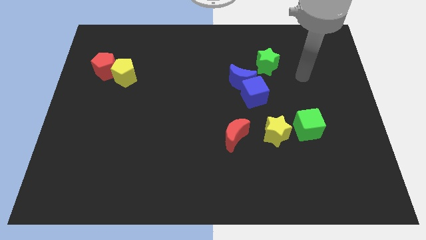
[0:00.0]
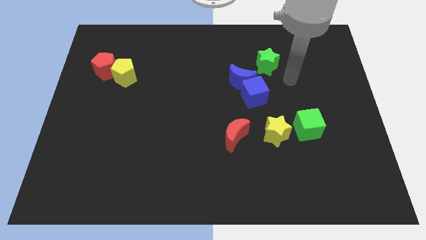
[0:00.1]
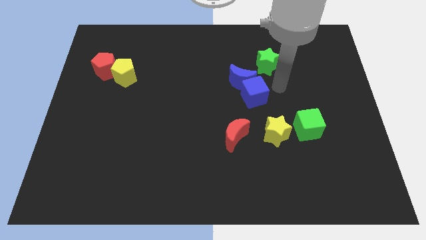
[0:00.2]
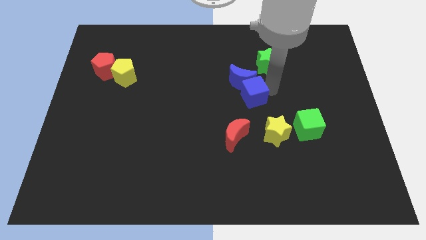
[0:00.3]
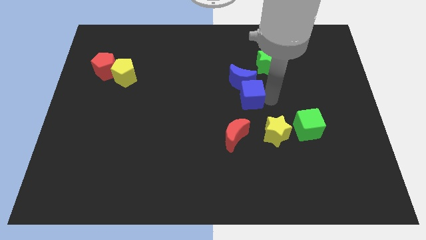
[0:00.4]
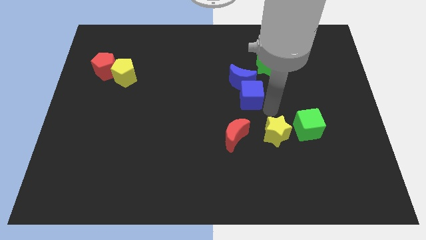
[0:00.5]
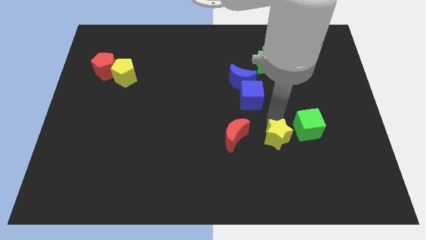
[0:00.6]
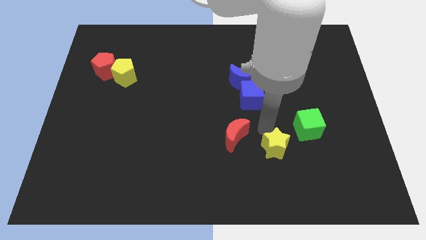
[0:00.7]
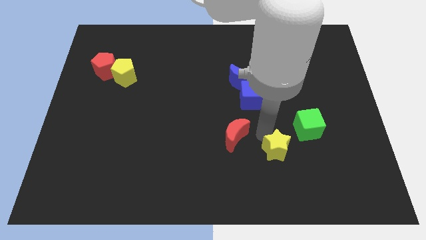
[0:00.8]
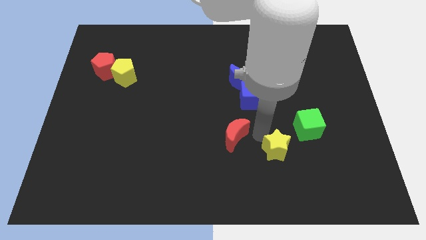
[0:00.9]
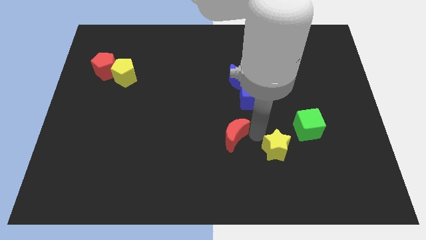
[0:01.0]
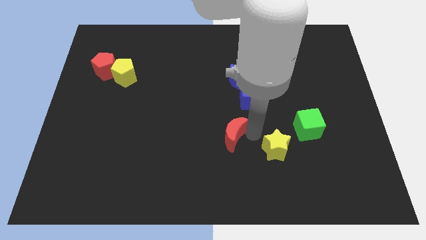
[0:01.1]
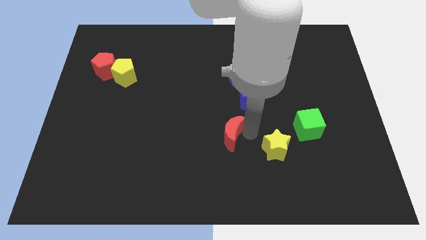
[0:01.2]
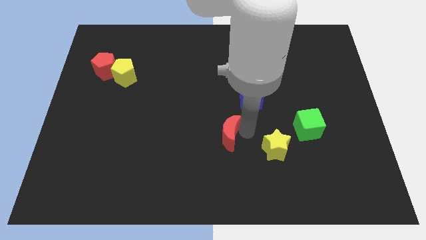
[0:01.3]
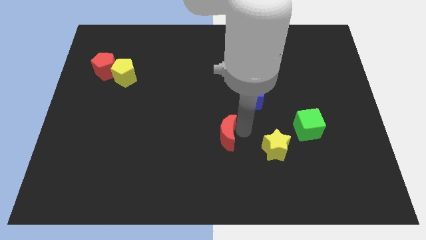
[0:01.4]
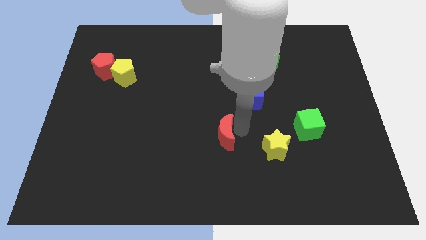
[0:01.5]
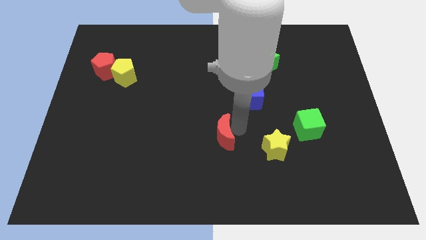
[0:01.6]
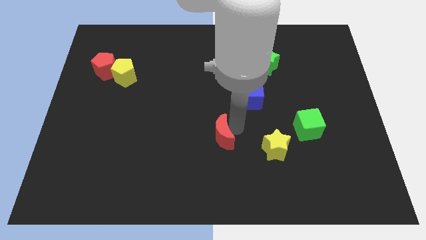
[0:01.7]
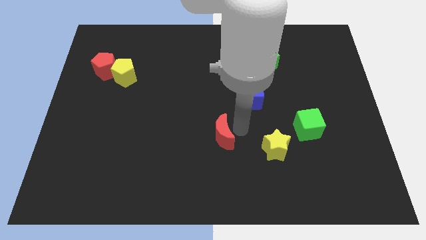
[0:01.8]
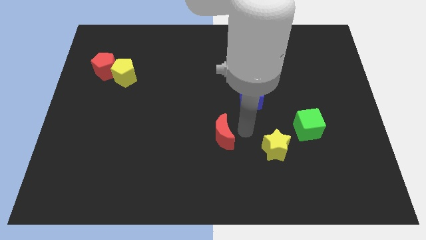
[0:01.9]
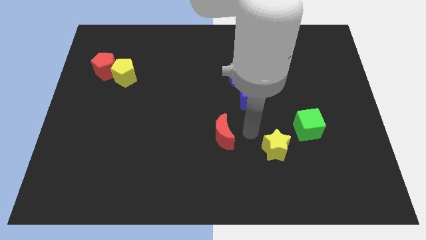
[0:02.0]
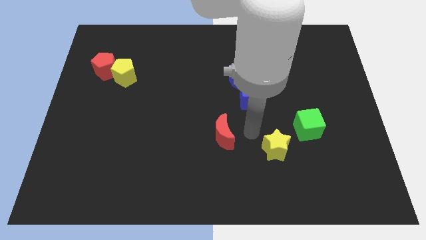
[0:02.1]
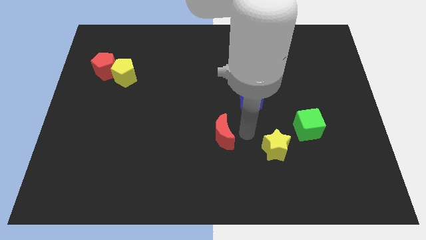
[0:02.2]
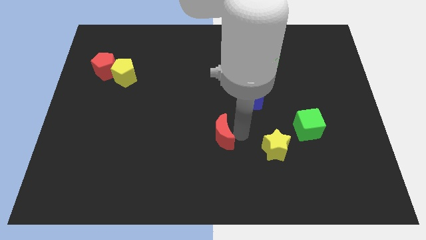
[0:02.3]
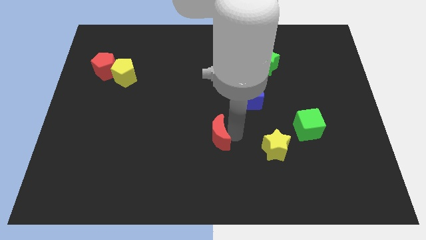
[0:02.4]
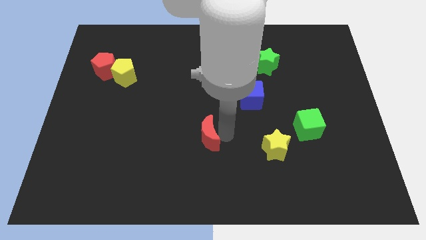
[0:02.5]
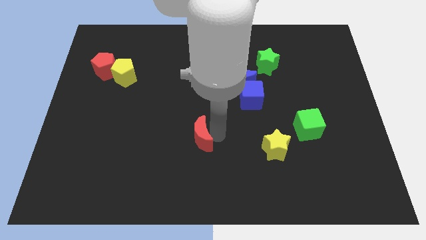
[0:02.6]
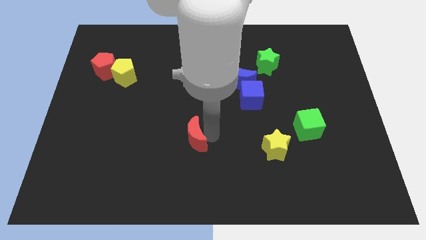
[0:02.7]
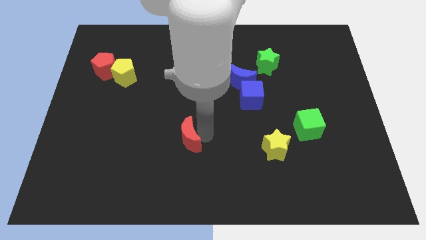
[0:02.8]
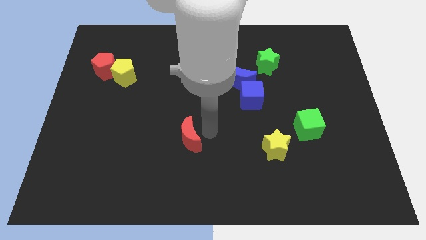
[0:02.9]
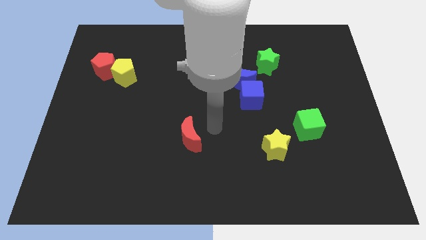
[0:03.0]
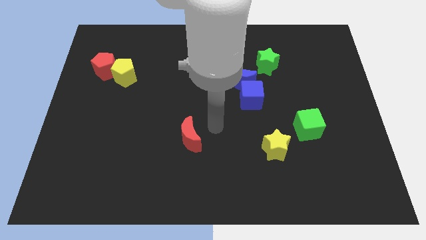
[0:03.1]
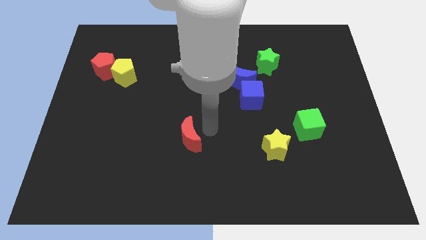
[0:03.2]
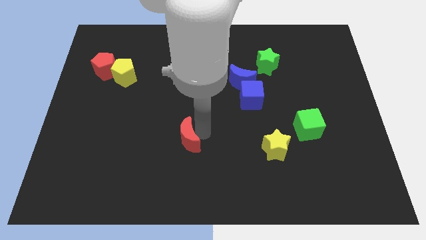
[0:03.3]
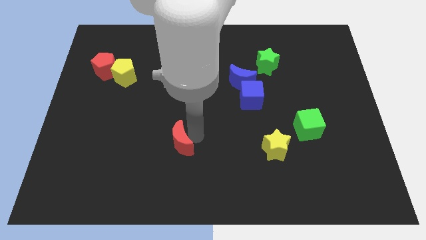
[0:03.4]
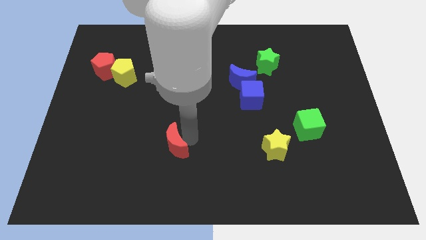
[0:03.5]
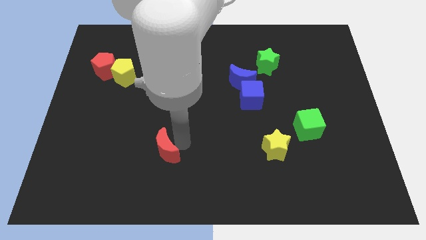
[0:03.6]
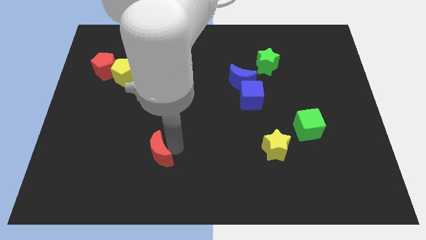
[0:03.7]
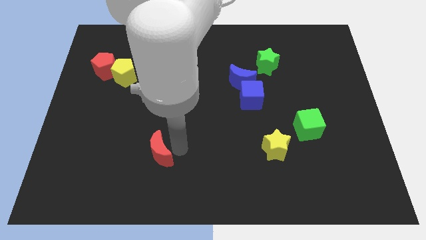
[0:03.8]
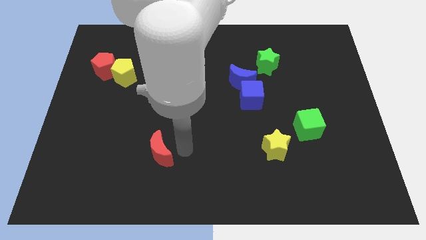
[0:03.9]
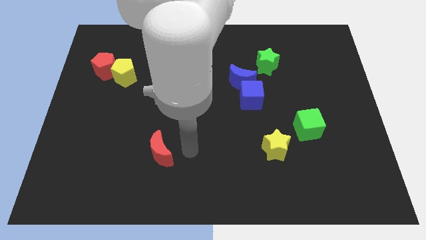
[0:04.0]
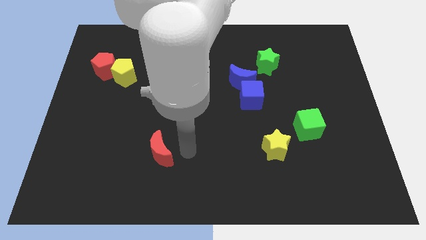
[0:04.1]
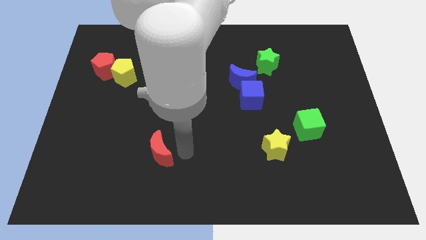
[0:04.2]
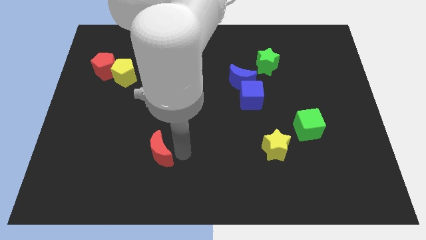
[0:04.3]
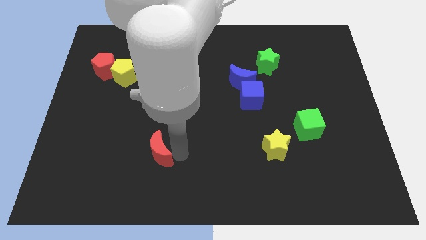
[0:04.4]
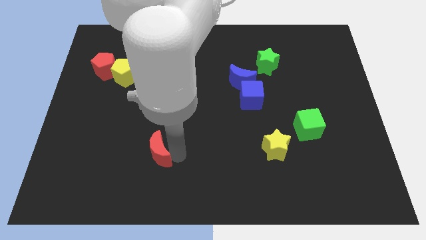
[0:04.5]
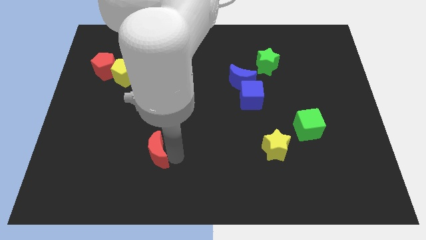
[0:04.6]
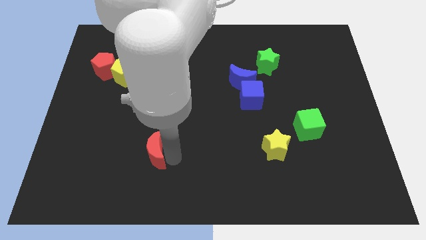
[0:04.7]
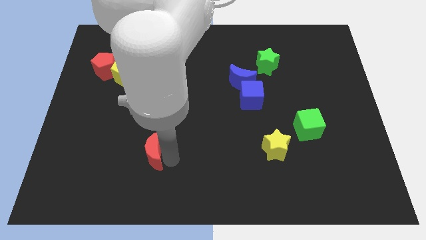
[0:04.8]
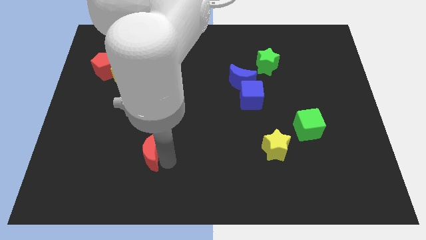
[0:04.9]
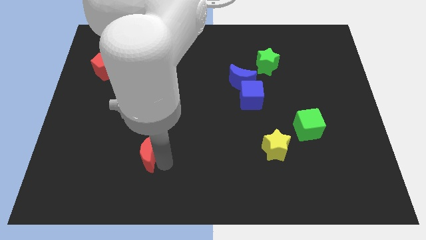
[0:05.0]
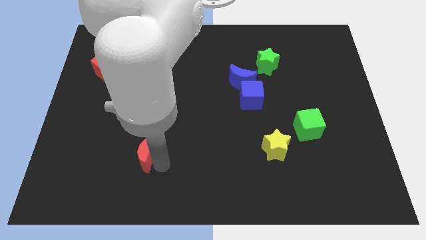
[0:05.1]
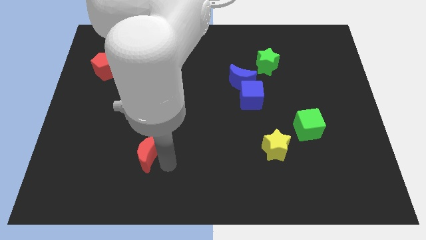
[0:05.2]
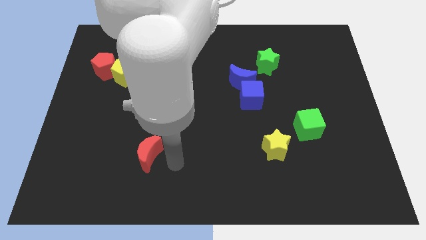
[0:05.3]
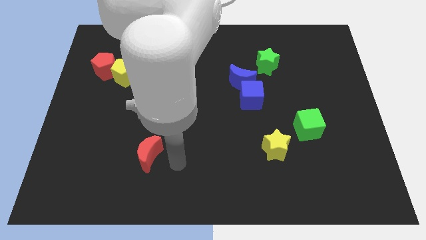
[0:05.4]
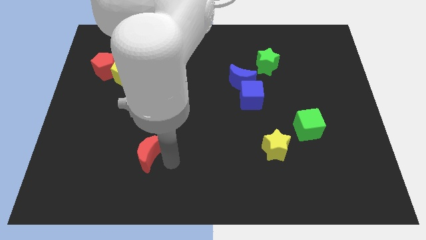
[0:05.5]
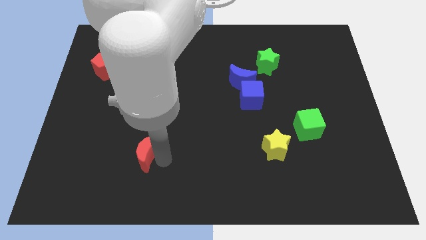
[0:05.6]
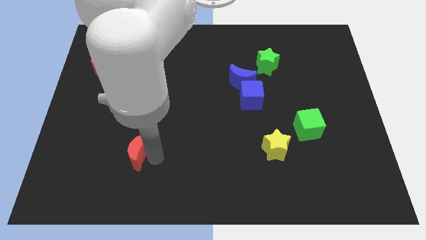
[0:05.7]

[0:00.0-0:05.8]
move the red moon left

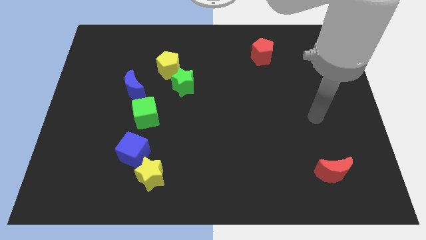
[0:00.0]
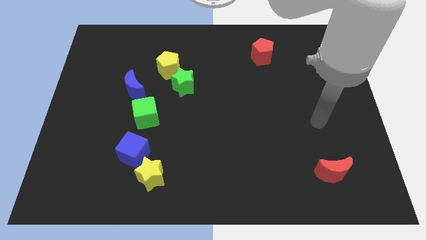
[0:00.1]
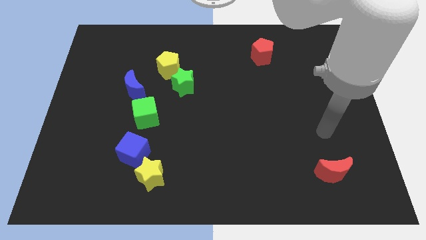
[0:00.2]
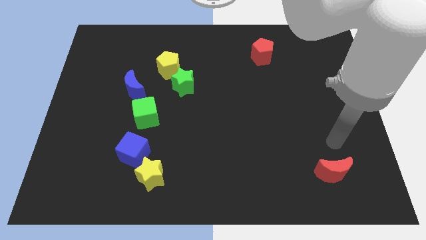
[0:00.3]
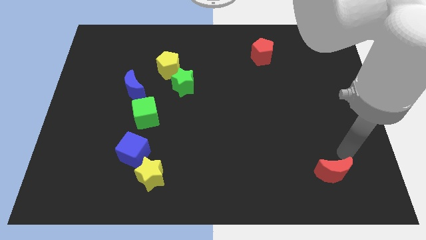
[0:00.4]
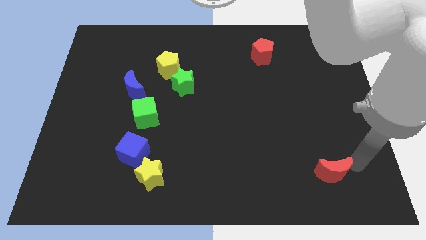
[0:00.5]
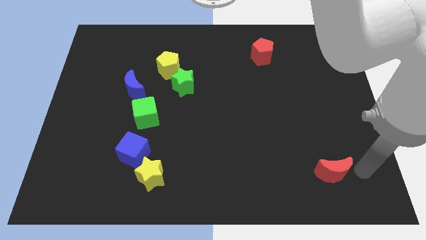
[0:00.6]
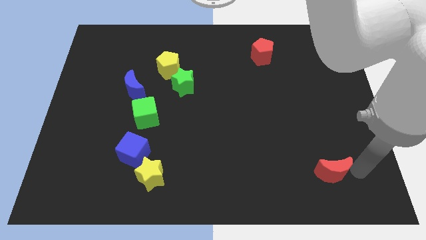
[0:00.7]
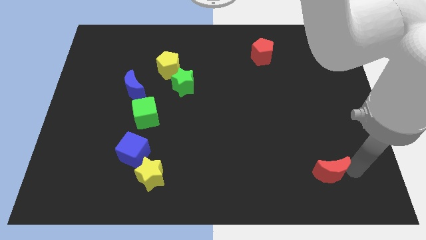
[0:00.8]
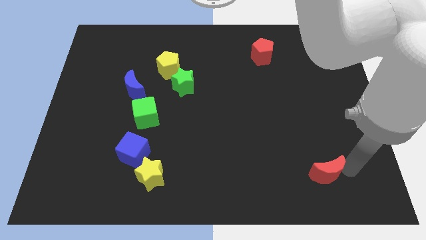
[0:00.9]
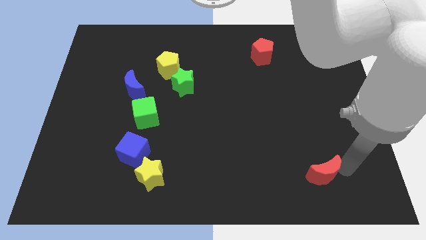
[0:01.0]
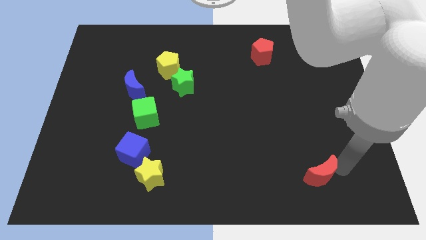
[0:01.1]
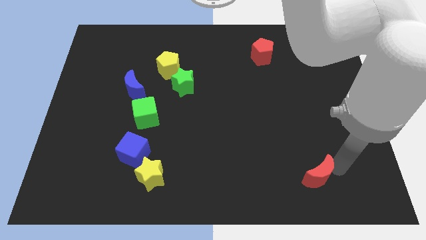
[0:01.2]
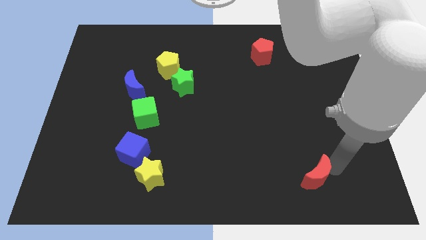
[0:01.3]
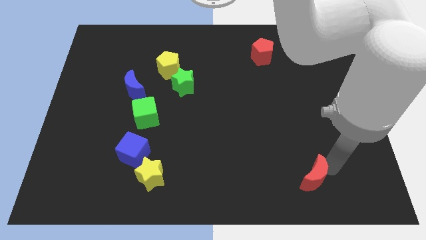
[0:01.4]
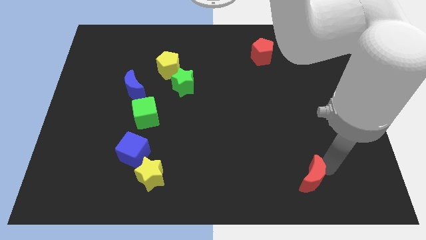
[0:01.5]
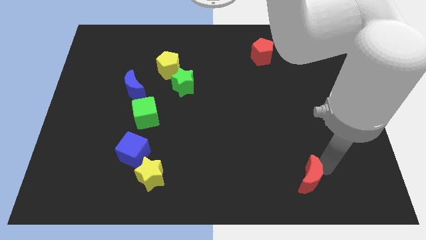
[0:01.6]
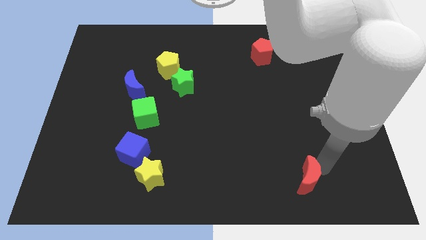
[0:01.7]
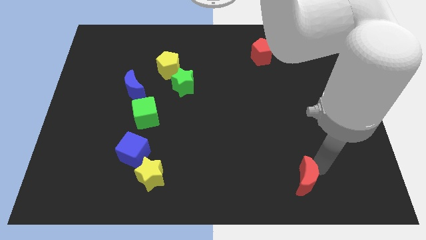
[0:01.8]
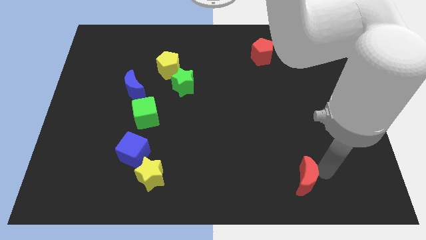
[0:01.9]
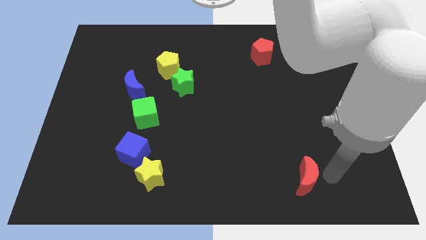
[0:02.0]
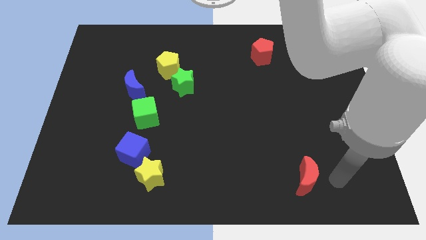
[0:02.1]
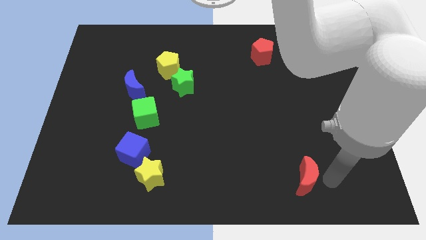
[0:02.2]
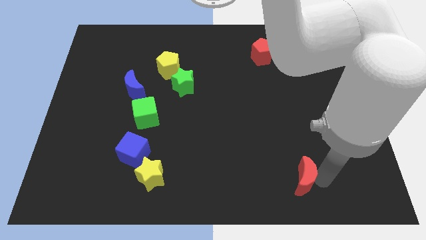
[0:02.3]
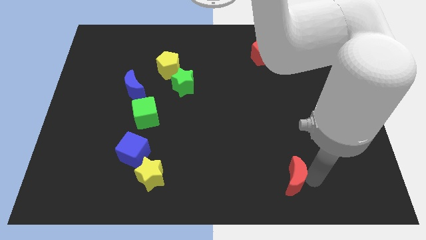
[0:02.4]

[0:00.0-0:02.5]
slide the red moon to the left slightly
